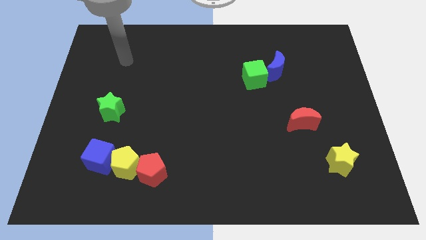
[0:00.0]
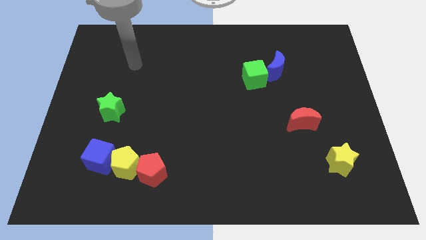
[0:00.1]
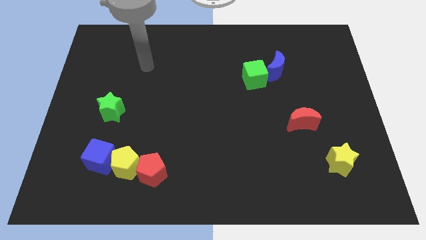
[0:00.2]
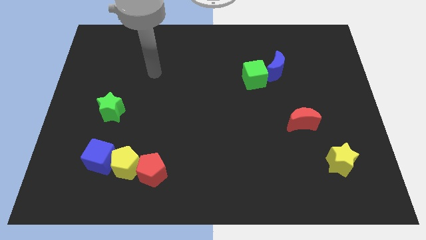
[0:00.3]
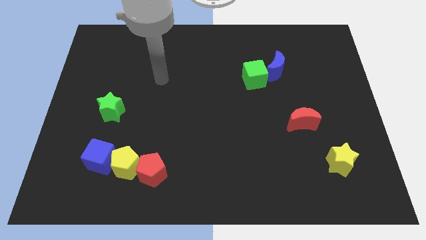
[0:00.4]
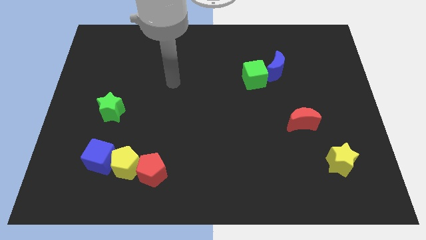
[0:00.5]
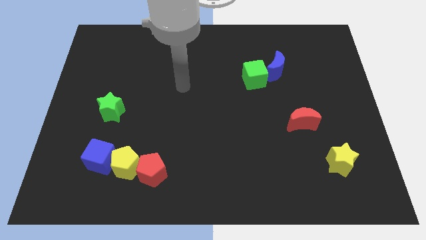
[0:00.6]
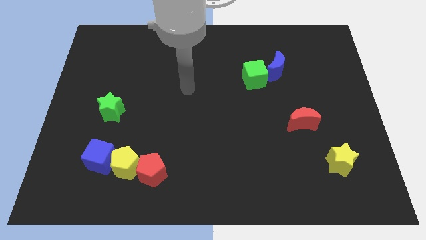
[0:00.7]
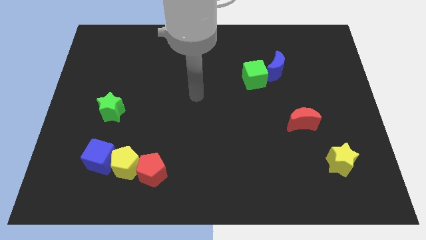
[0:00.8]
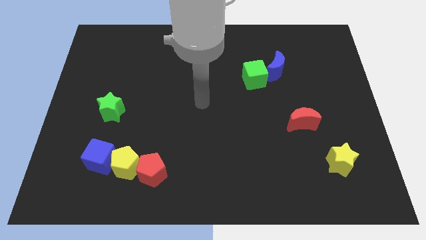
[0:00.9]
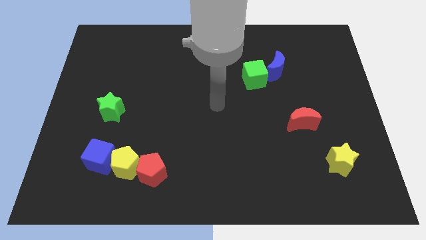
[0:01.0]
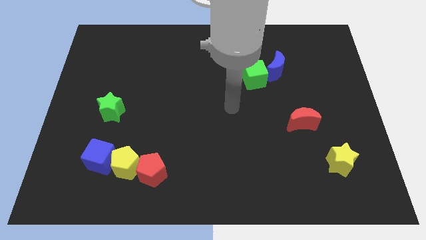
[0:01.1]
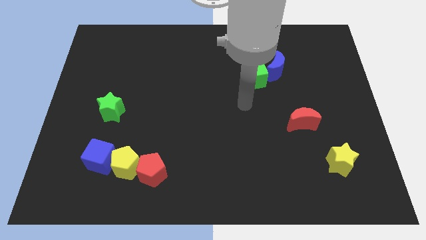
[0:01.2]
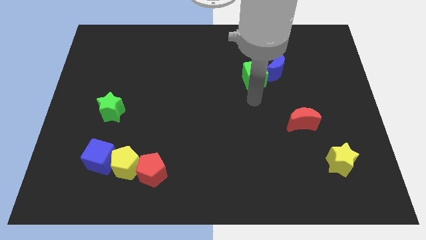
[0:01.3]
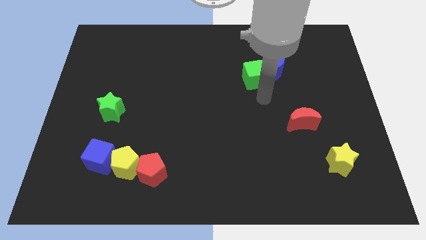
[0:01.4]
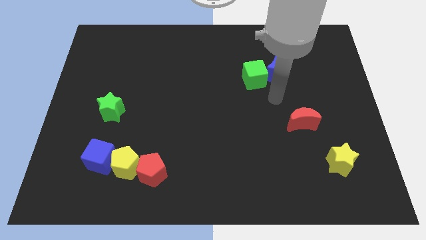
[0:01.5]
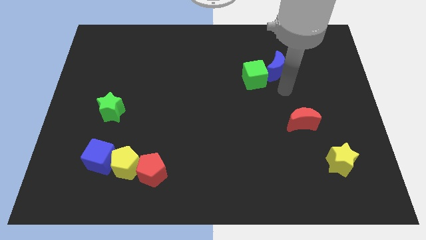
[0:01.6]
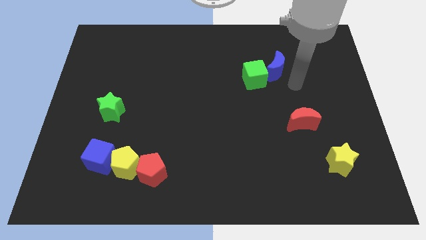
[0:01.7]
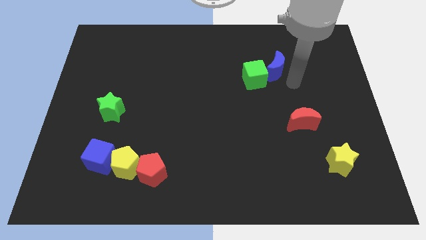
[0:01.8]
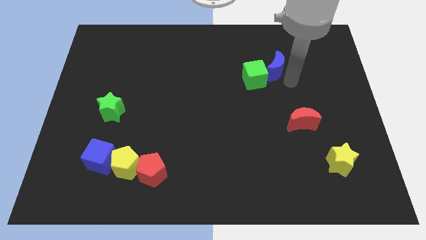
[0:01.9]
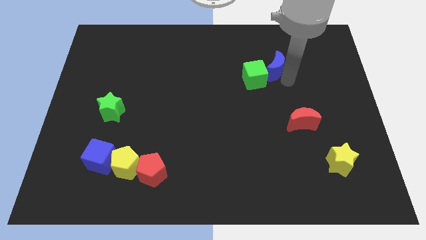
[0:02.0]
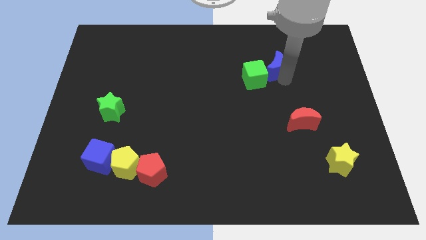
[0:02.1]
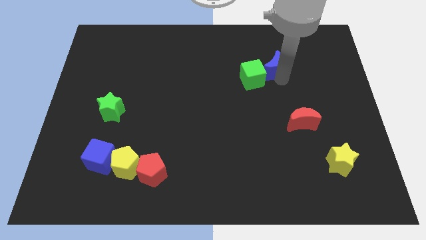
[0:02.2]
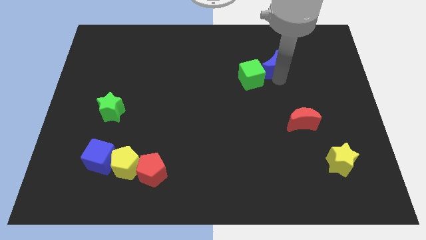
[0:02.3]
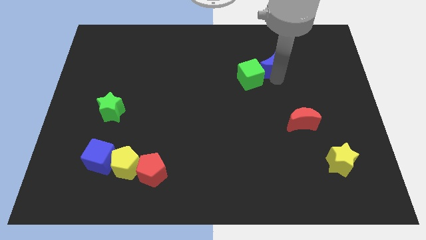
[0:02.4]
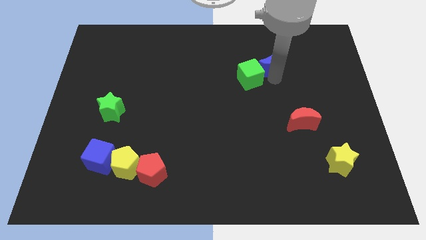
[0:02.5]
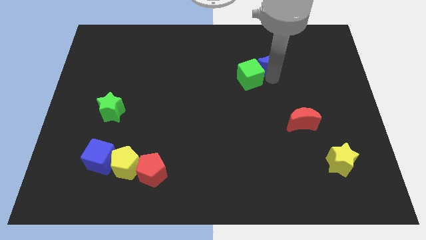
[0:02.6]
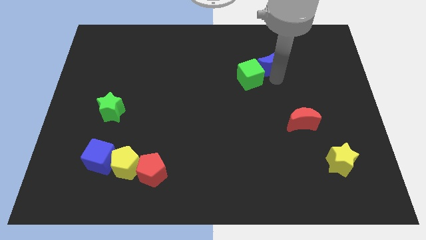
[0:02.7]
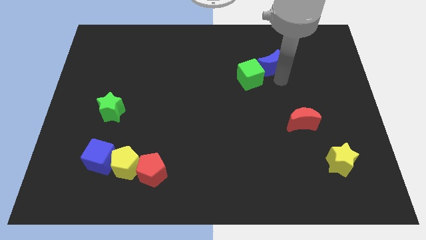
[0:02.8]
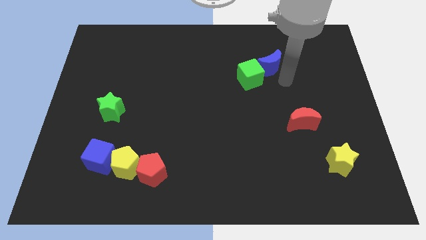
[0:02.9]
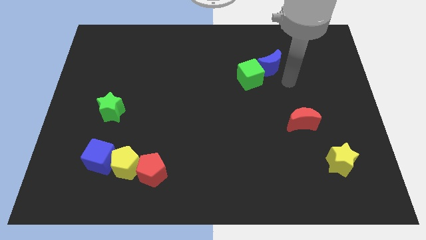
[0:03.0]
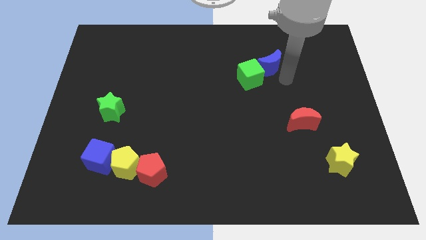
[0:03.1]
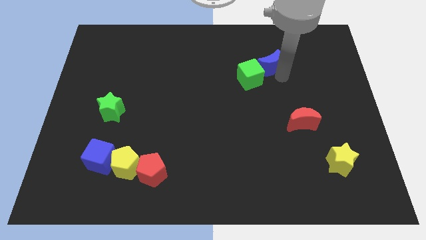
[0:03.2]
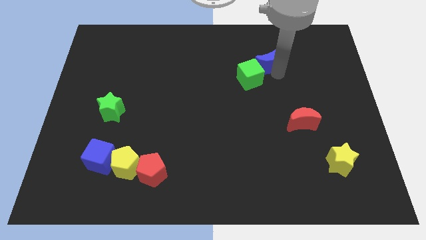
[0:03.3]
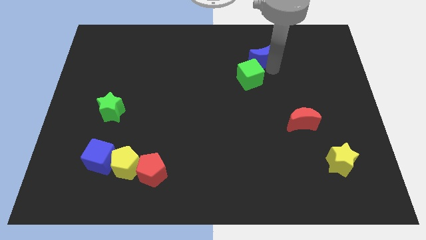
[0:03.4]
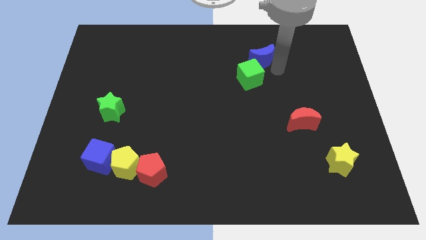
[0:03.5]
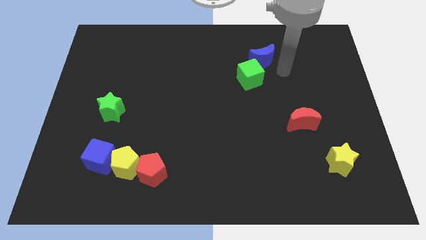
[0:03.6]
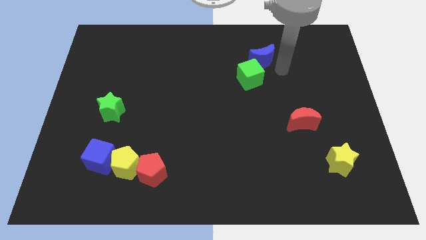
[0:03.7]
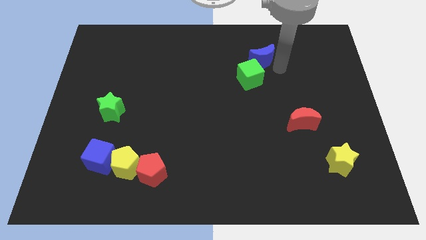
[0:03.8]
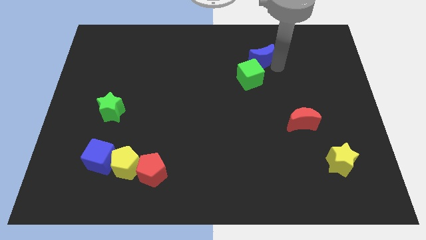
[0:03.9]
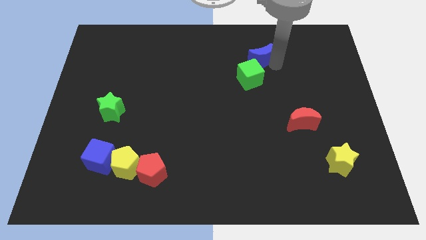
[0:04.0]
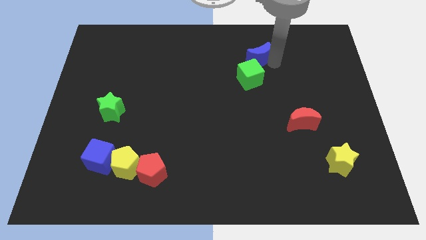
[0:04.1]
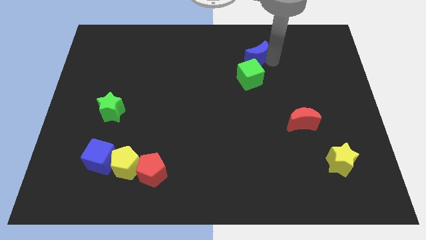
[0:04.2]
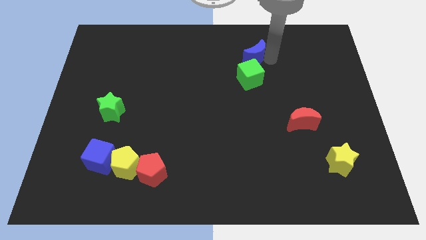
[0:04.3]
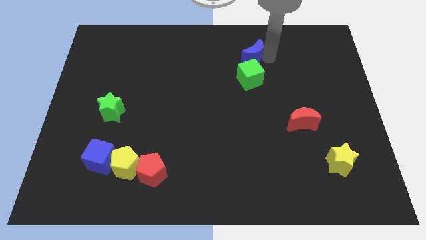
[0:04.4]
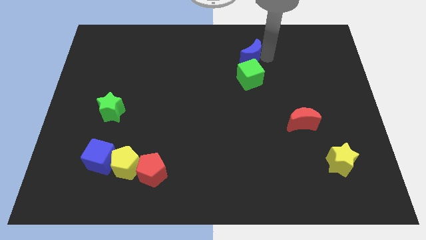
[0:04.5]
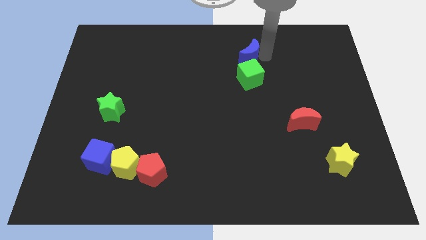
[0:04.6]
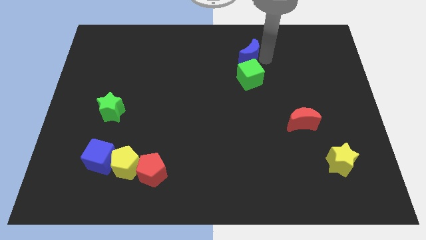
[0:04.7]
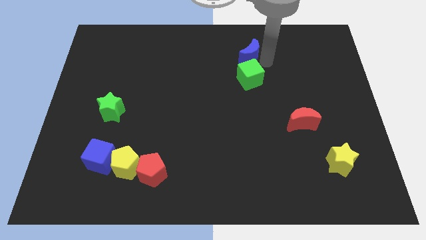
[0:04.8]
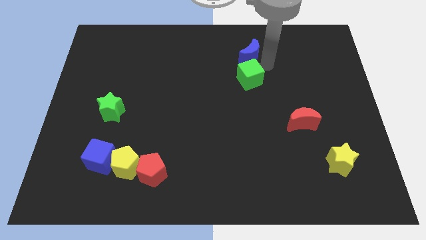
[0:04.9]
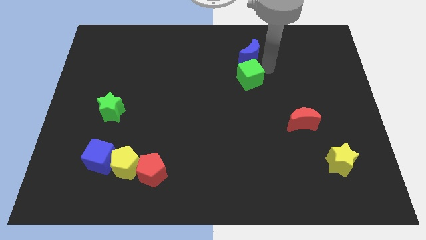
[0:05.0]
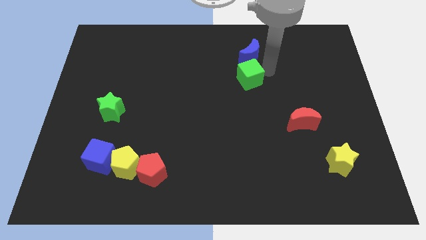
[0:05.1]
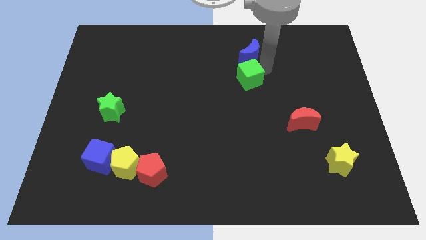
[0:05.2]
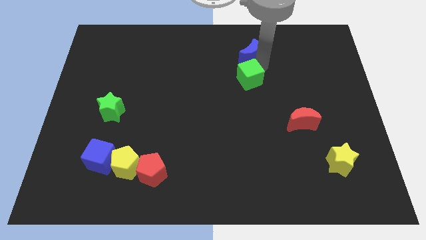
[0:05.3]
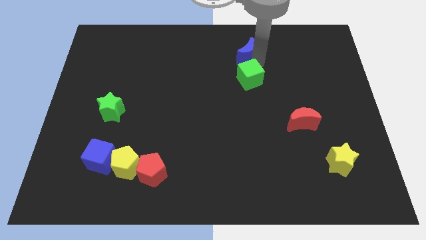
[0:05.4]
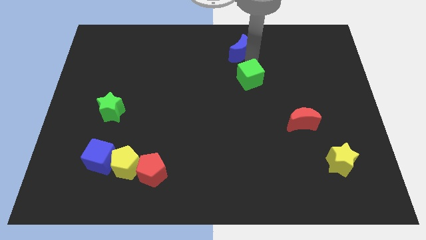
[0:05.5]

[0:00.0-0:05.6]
slide the blue moon to the towards your base

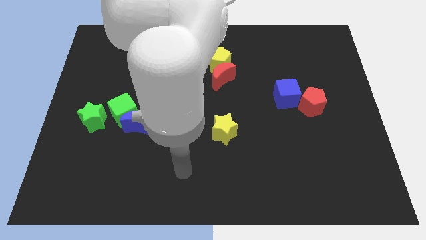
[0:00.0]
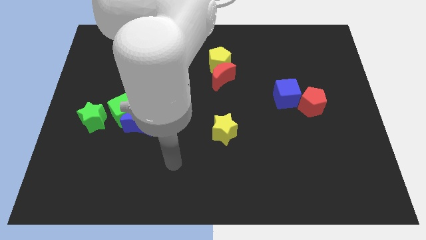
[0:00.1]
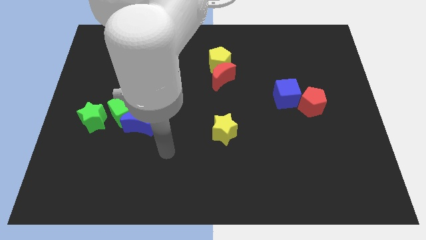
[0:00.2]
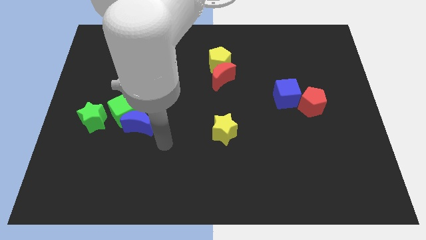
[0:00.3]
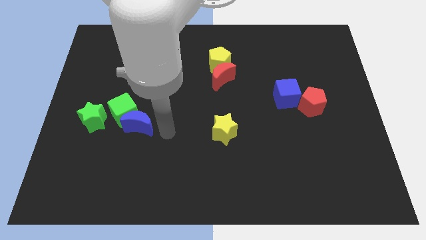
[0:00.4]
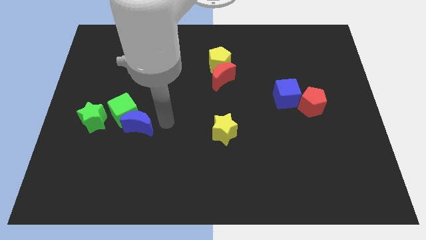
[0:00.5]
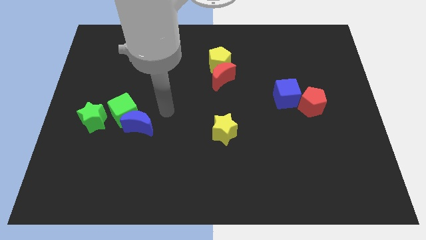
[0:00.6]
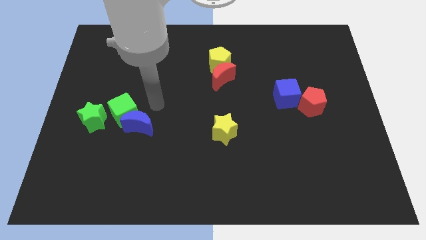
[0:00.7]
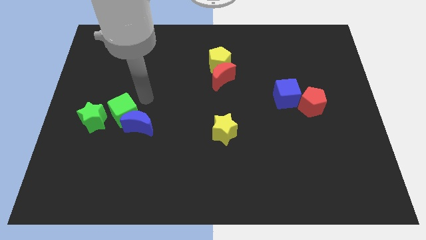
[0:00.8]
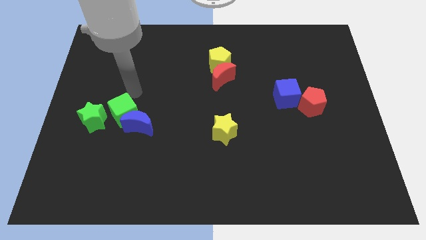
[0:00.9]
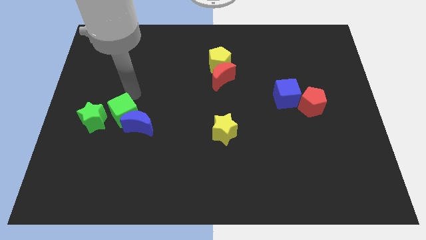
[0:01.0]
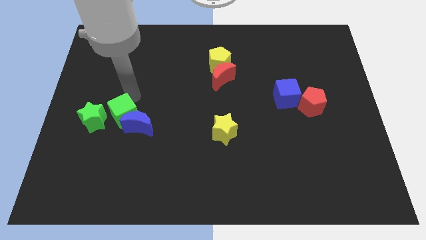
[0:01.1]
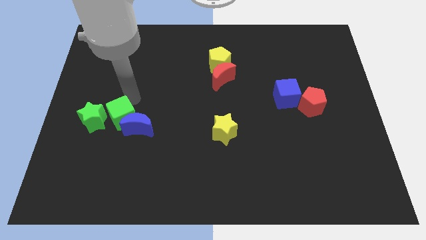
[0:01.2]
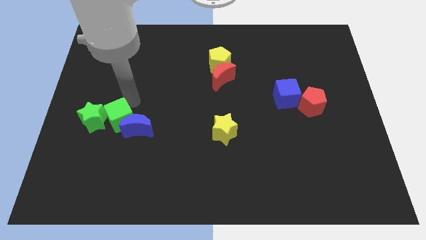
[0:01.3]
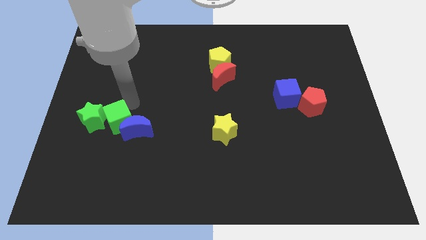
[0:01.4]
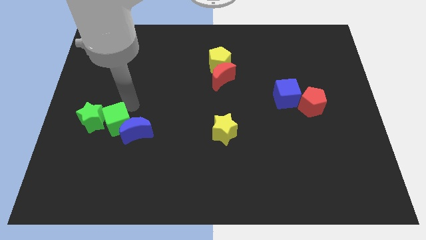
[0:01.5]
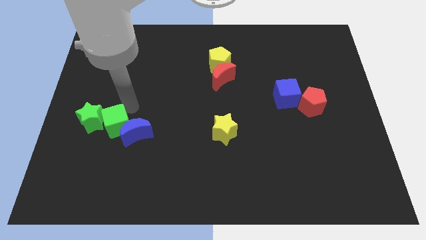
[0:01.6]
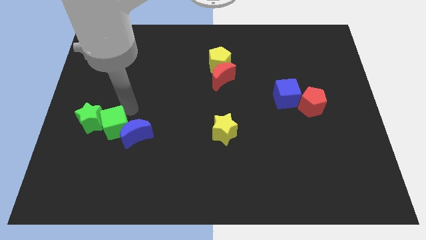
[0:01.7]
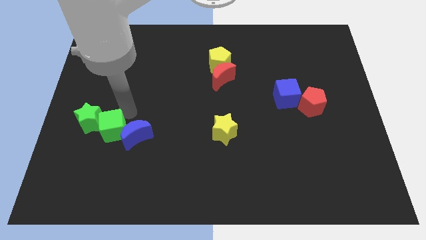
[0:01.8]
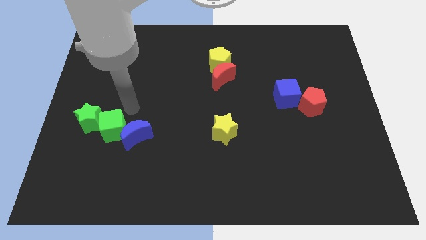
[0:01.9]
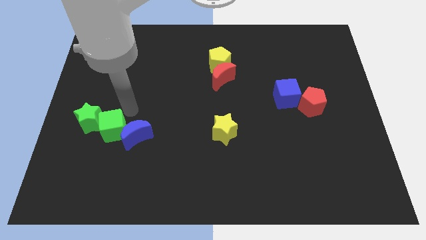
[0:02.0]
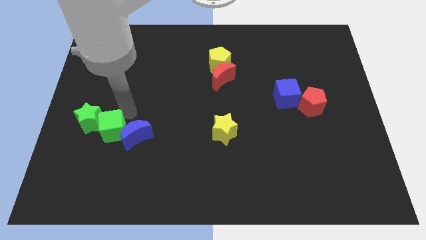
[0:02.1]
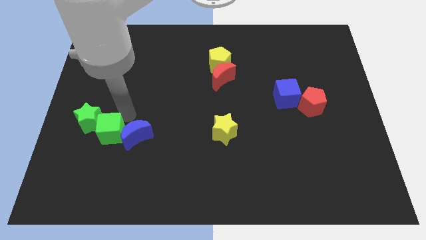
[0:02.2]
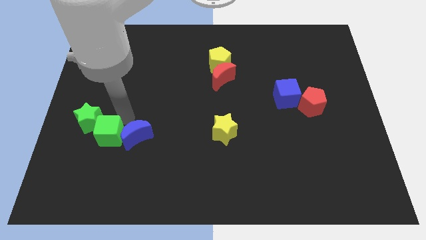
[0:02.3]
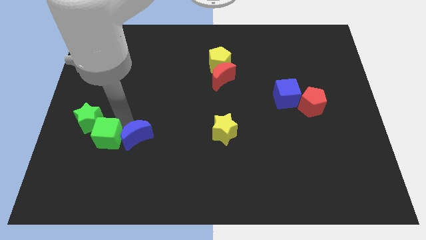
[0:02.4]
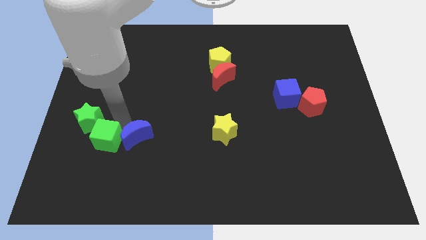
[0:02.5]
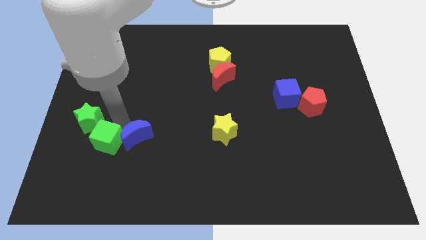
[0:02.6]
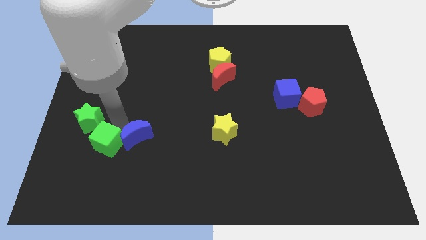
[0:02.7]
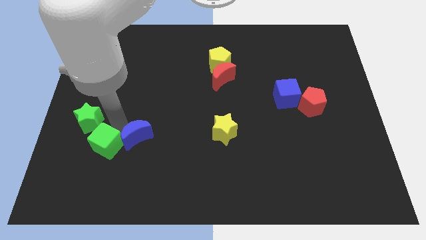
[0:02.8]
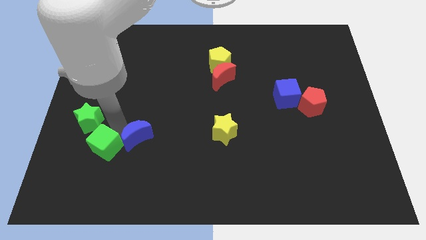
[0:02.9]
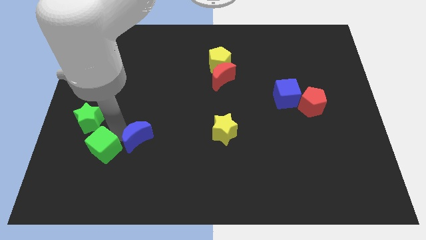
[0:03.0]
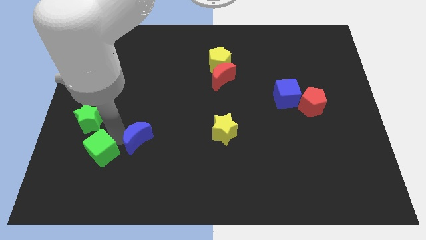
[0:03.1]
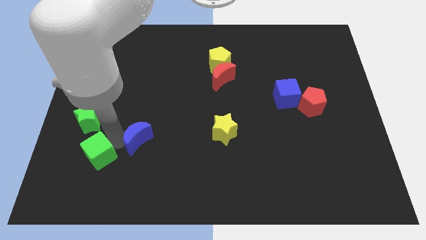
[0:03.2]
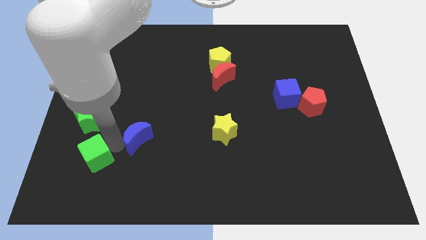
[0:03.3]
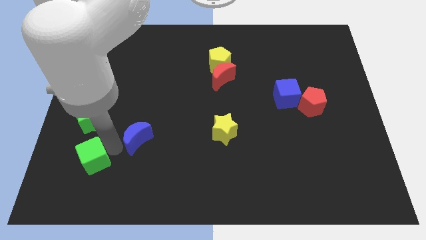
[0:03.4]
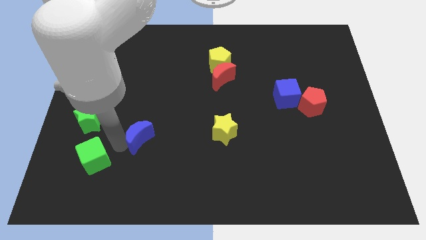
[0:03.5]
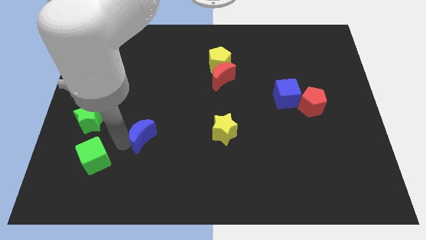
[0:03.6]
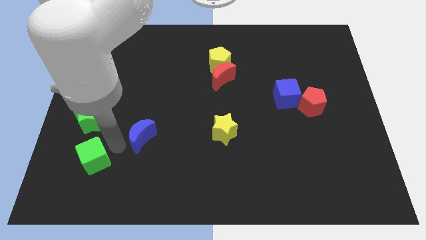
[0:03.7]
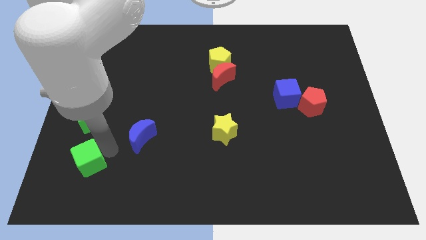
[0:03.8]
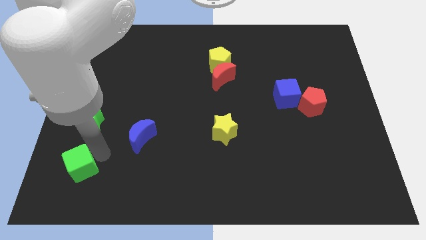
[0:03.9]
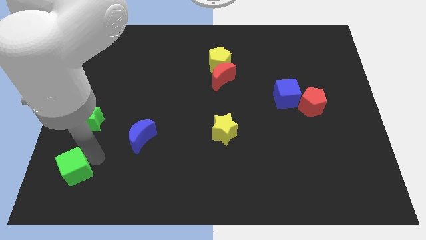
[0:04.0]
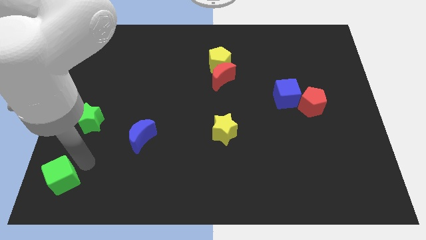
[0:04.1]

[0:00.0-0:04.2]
move the green cube to the bottom left of the board
